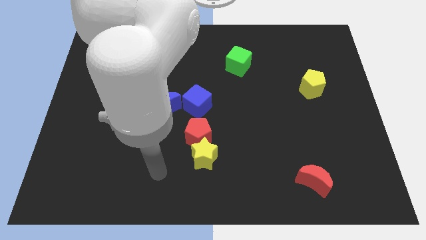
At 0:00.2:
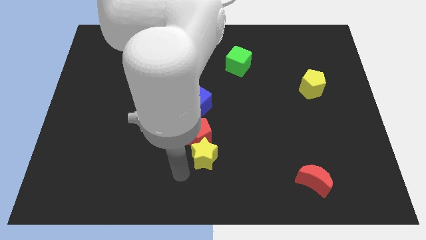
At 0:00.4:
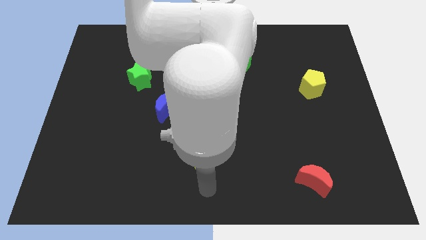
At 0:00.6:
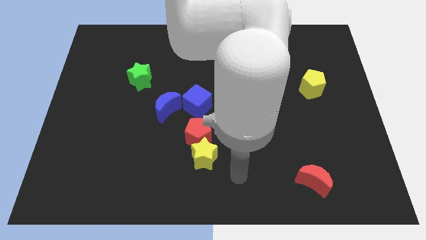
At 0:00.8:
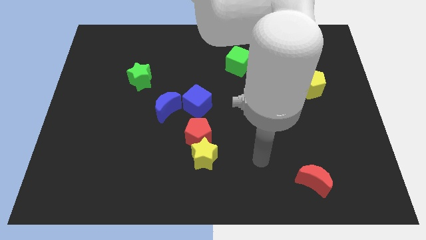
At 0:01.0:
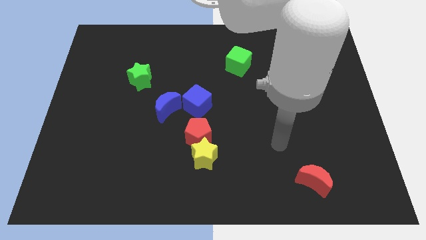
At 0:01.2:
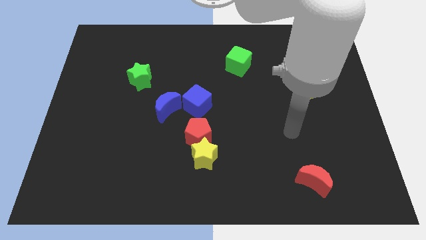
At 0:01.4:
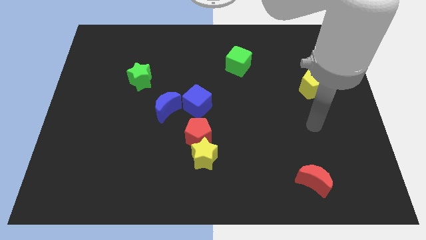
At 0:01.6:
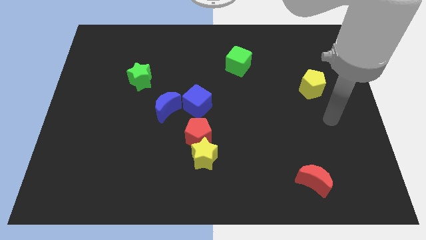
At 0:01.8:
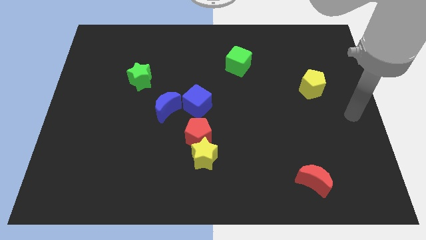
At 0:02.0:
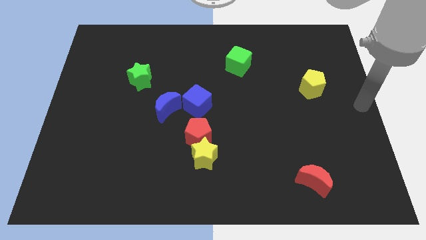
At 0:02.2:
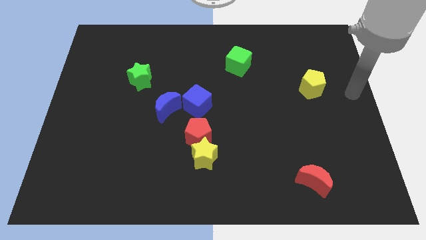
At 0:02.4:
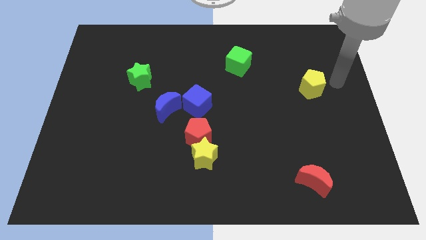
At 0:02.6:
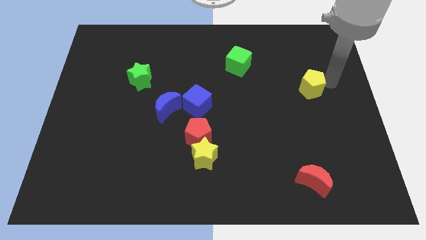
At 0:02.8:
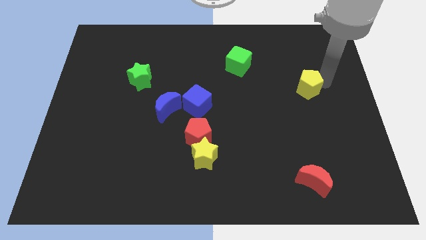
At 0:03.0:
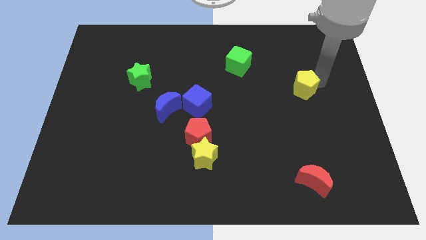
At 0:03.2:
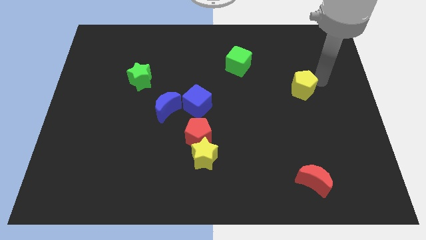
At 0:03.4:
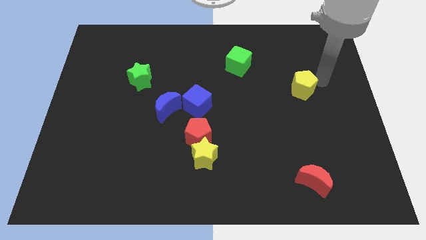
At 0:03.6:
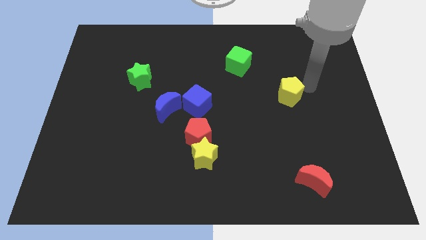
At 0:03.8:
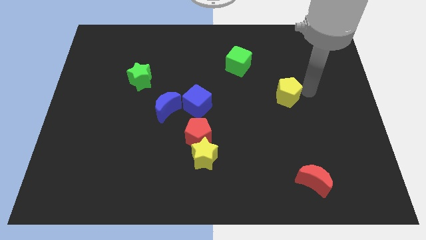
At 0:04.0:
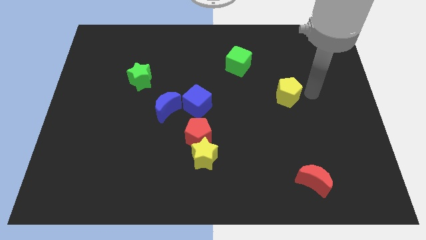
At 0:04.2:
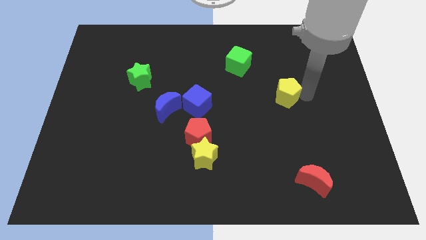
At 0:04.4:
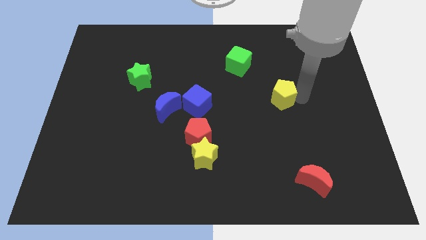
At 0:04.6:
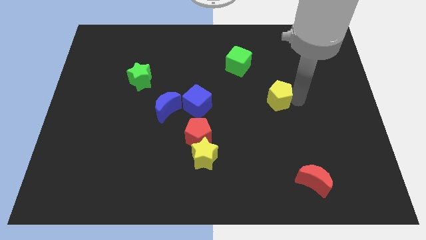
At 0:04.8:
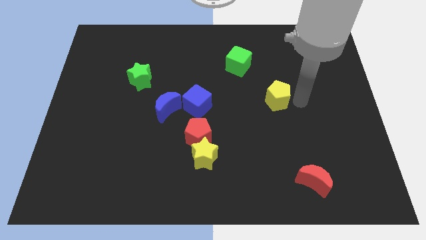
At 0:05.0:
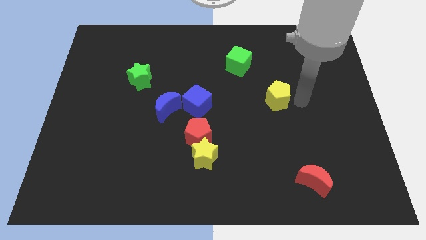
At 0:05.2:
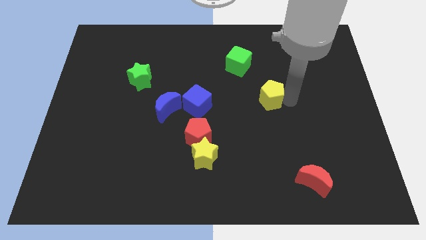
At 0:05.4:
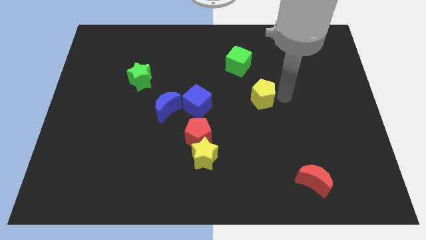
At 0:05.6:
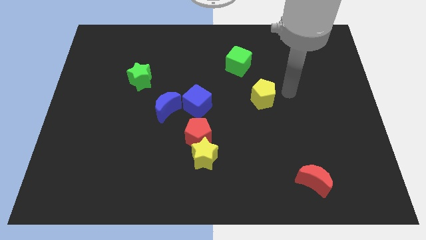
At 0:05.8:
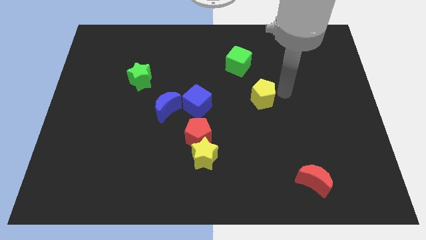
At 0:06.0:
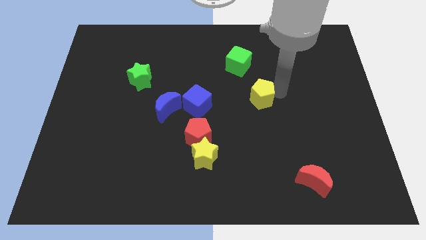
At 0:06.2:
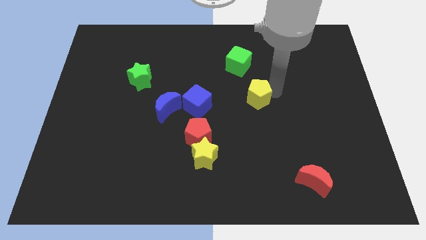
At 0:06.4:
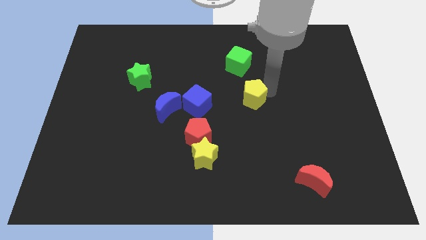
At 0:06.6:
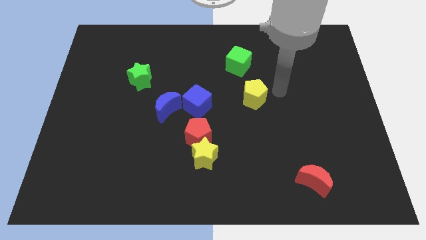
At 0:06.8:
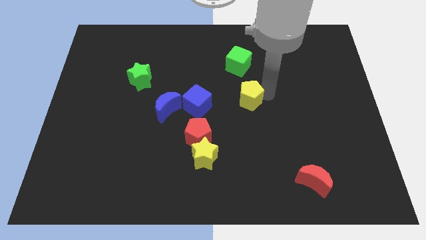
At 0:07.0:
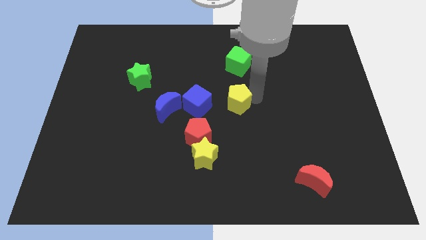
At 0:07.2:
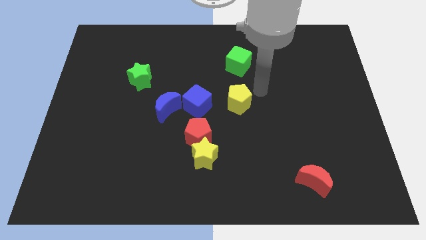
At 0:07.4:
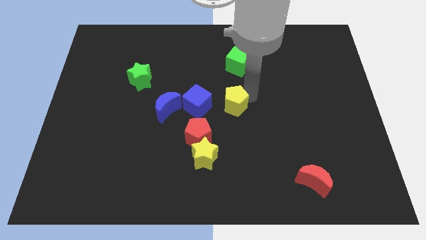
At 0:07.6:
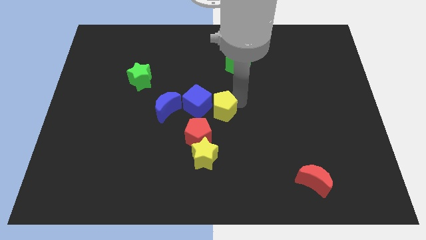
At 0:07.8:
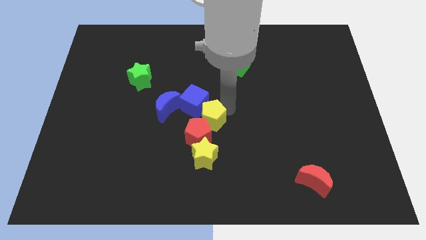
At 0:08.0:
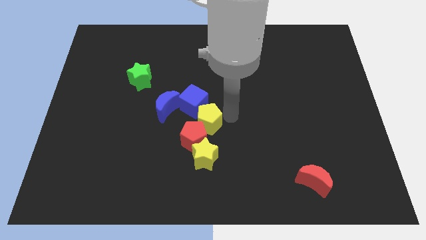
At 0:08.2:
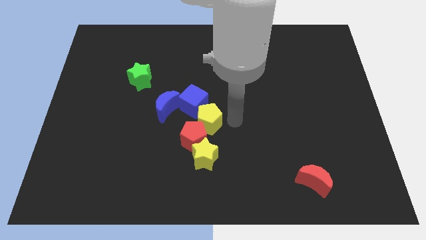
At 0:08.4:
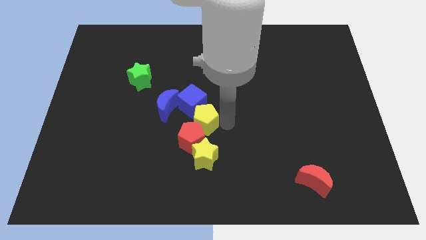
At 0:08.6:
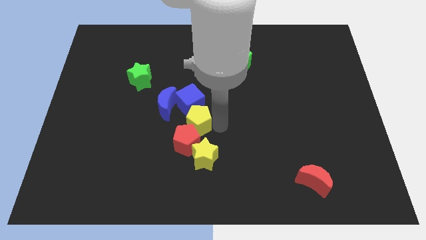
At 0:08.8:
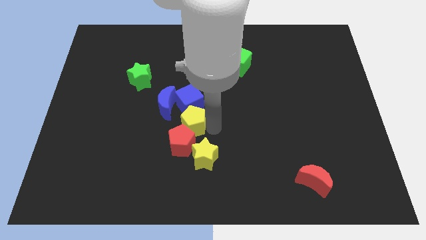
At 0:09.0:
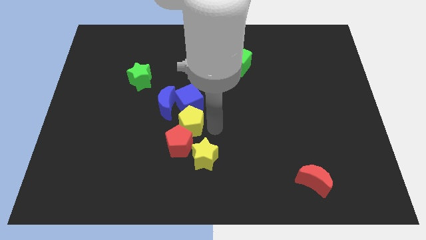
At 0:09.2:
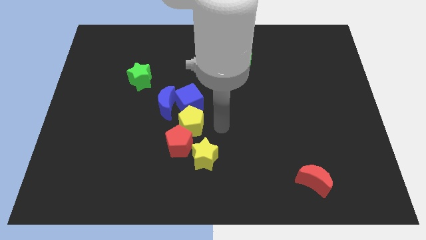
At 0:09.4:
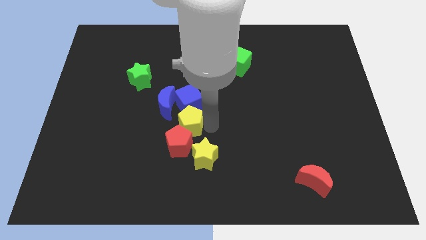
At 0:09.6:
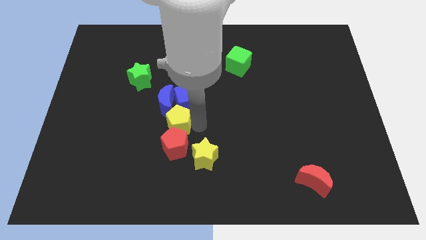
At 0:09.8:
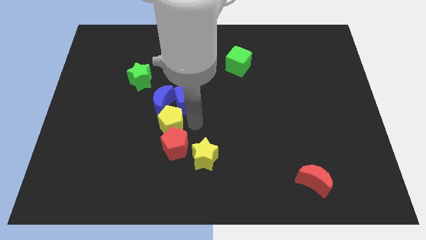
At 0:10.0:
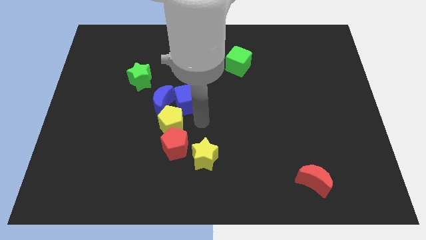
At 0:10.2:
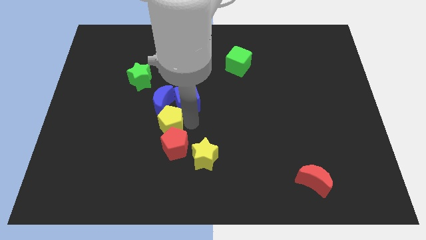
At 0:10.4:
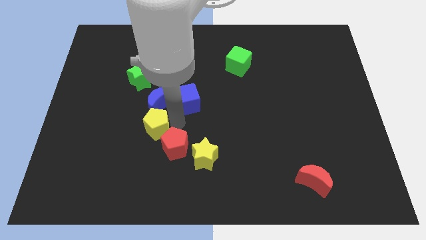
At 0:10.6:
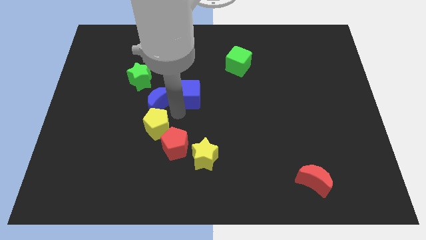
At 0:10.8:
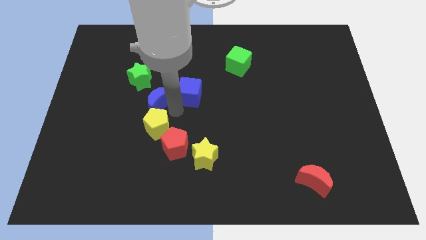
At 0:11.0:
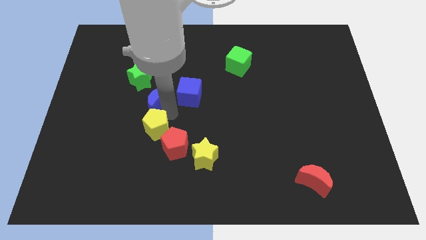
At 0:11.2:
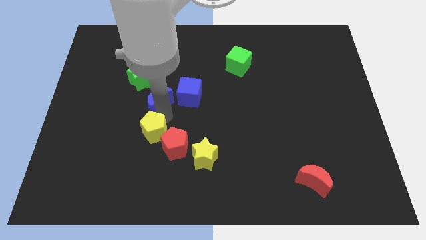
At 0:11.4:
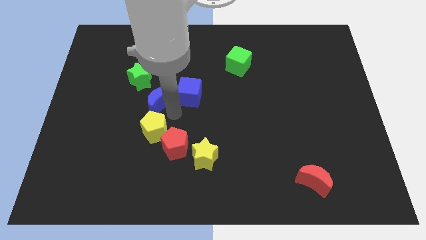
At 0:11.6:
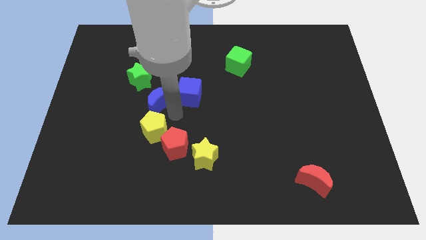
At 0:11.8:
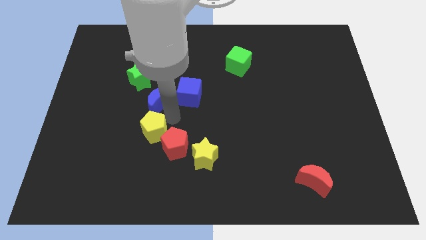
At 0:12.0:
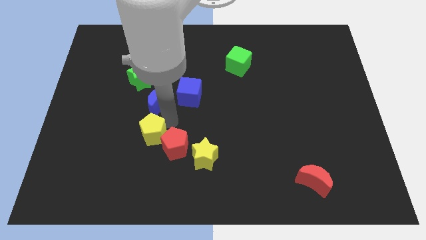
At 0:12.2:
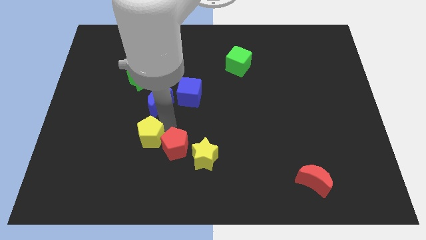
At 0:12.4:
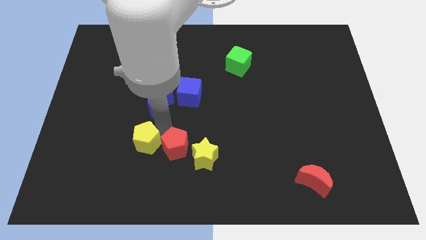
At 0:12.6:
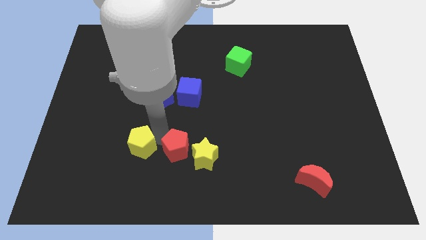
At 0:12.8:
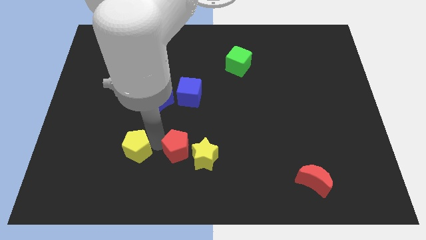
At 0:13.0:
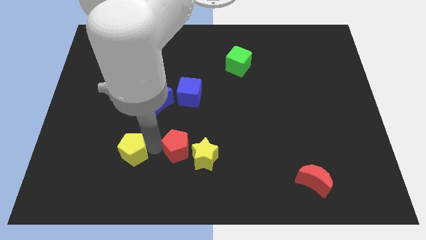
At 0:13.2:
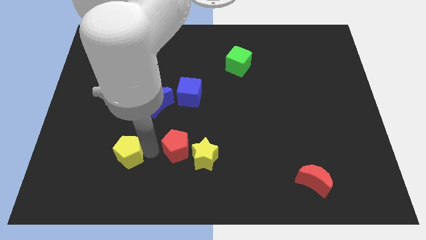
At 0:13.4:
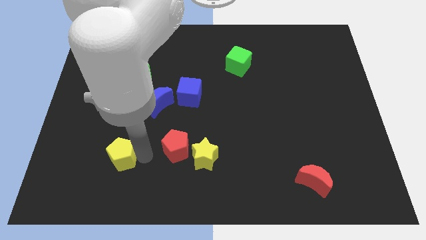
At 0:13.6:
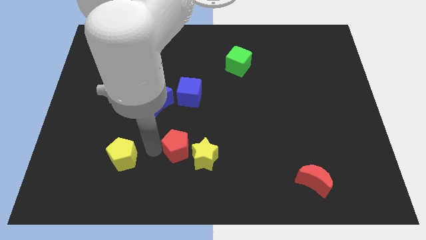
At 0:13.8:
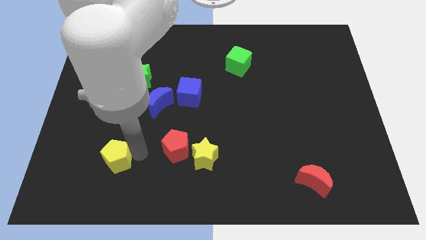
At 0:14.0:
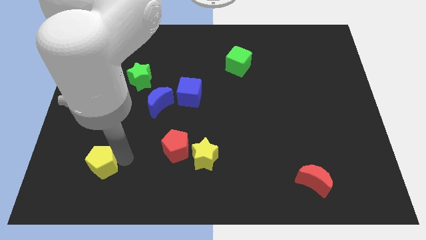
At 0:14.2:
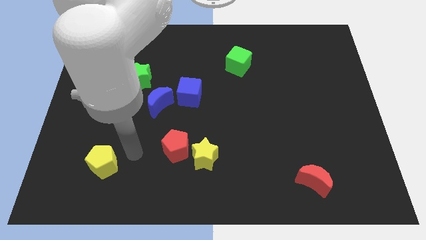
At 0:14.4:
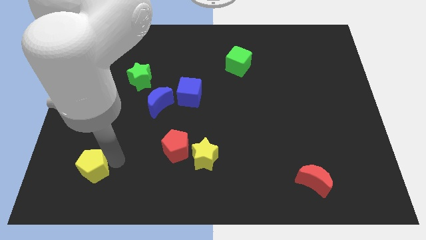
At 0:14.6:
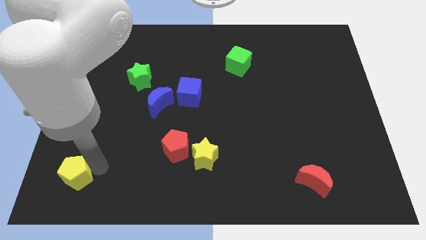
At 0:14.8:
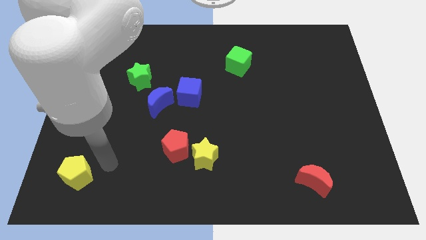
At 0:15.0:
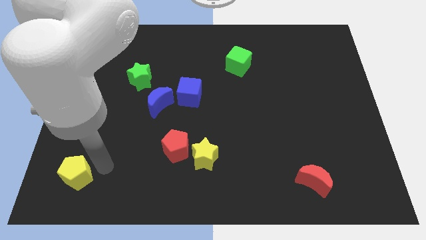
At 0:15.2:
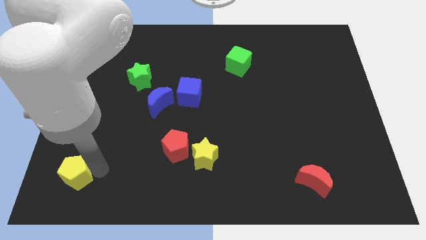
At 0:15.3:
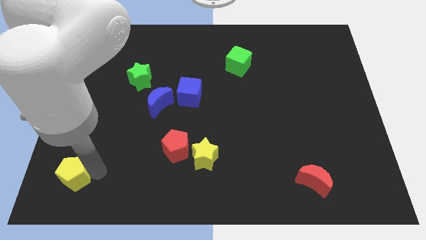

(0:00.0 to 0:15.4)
move the yellow pentagon to the lower left corner

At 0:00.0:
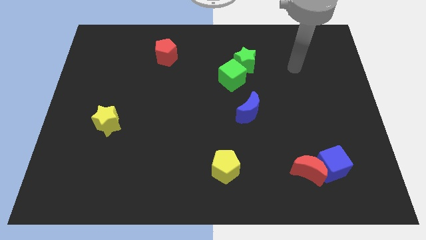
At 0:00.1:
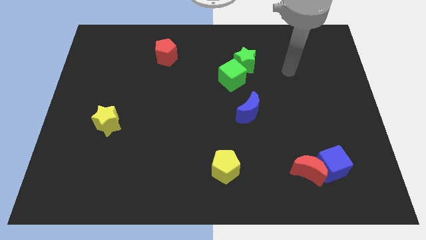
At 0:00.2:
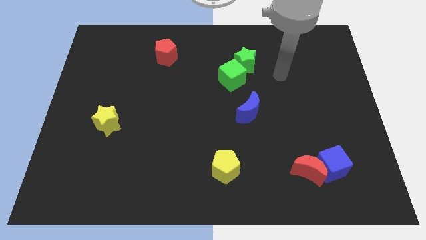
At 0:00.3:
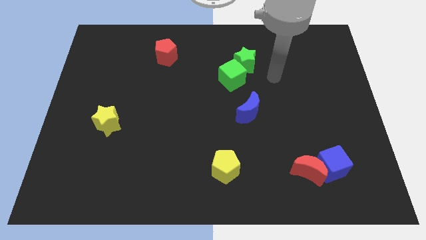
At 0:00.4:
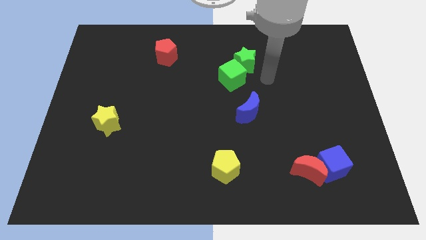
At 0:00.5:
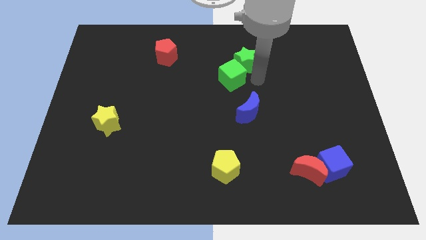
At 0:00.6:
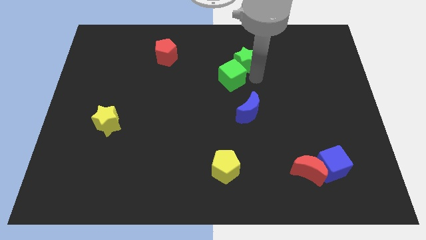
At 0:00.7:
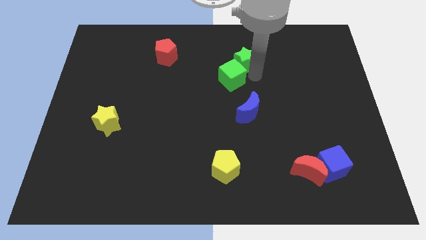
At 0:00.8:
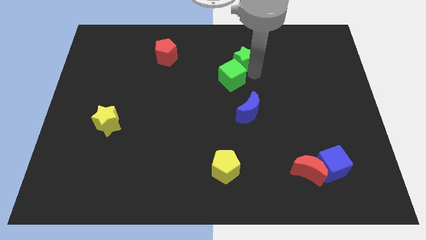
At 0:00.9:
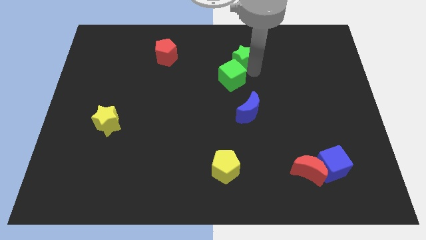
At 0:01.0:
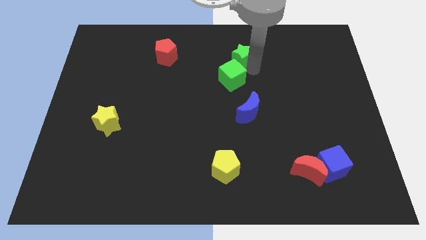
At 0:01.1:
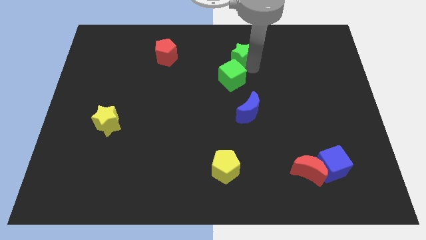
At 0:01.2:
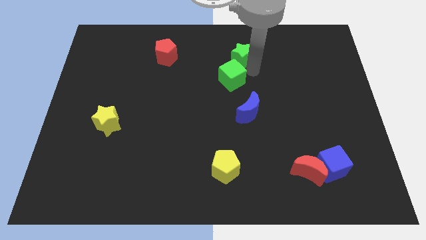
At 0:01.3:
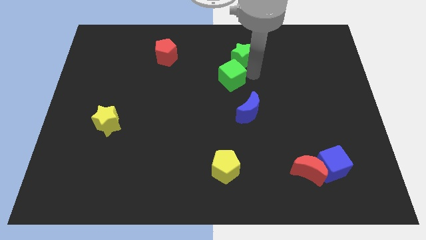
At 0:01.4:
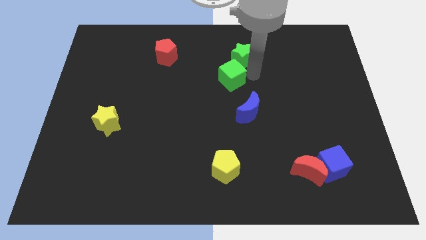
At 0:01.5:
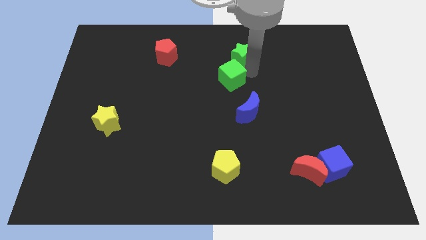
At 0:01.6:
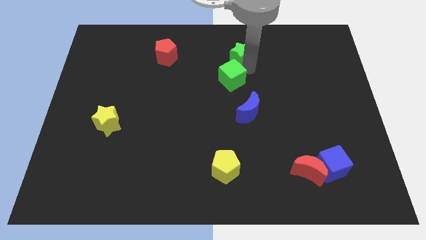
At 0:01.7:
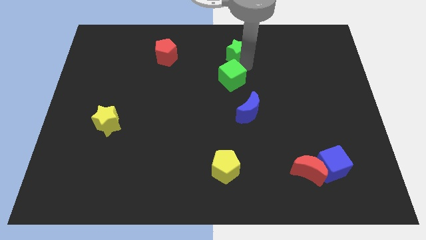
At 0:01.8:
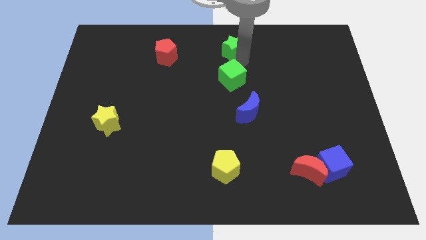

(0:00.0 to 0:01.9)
push the green star to the towards your base
